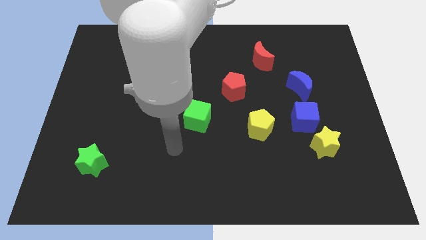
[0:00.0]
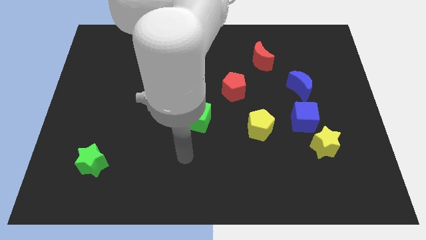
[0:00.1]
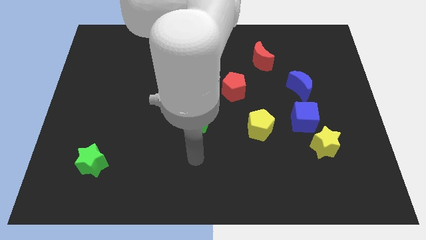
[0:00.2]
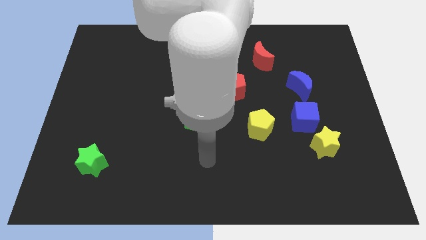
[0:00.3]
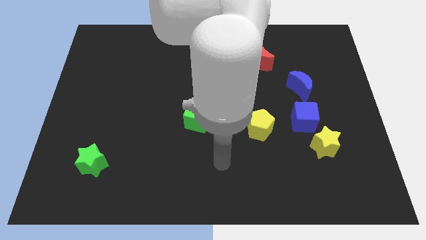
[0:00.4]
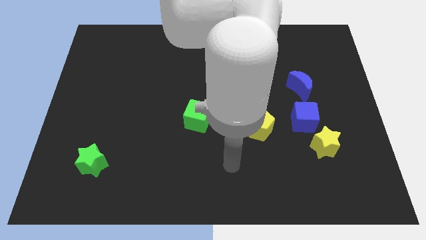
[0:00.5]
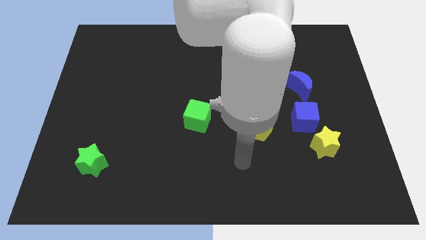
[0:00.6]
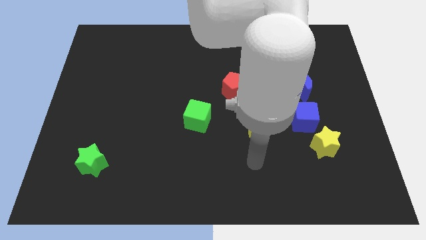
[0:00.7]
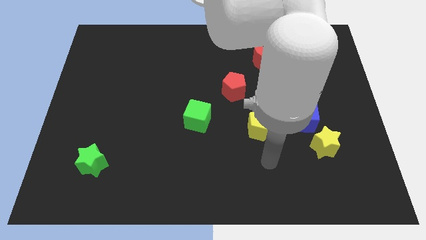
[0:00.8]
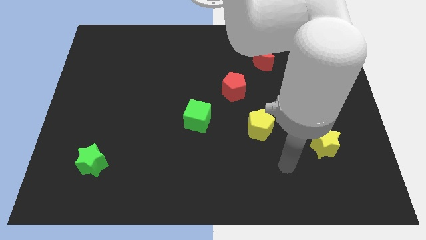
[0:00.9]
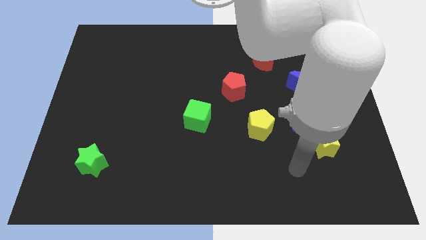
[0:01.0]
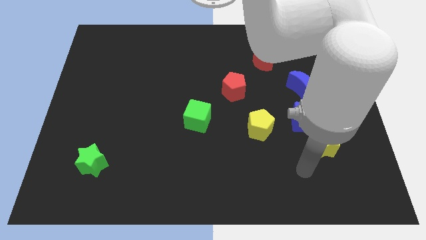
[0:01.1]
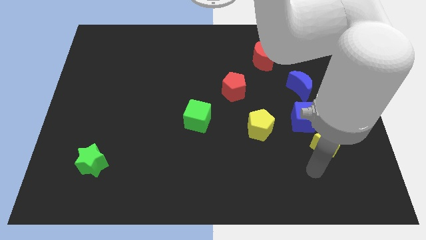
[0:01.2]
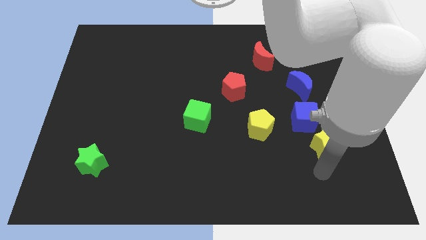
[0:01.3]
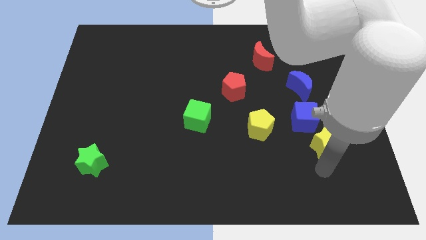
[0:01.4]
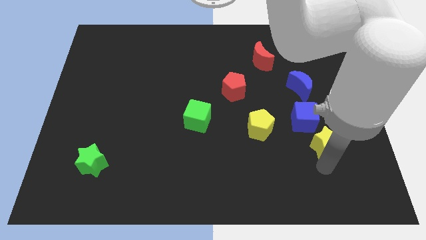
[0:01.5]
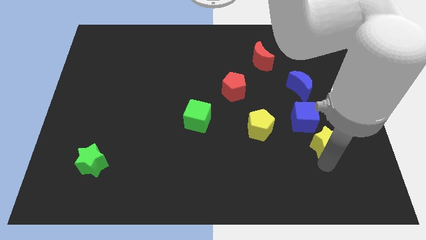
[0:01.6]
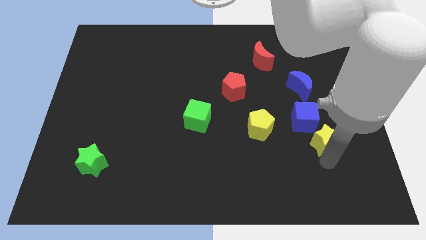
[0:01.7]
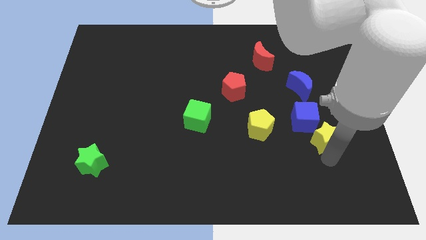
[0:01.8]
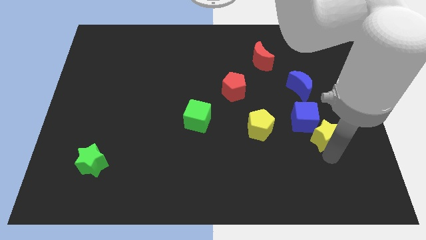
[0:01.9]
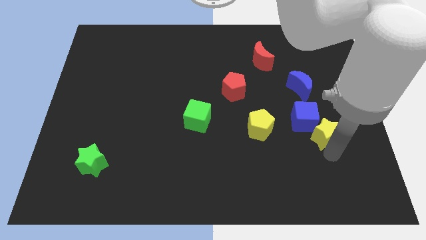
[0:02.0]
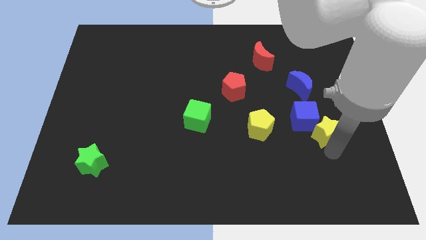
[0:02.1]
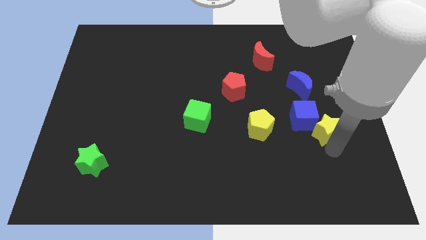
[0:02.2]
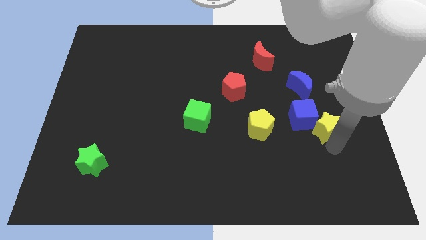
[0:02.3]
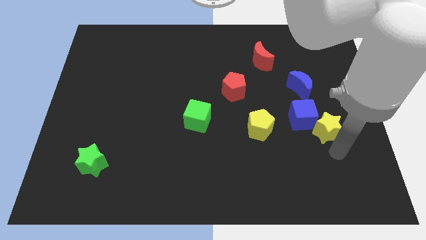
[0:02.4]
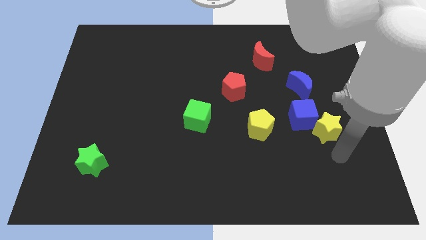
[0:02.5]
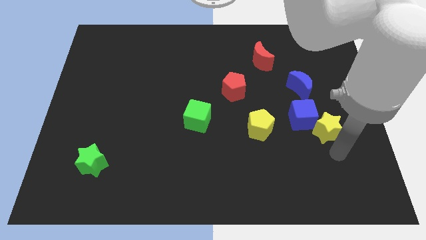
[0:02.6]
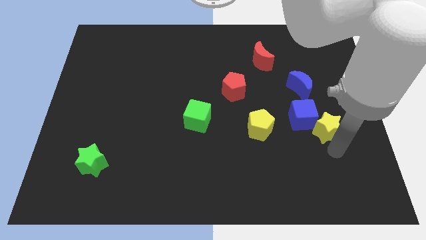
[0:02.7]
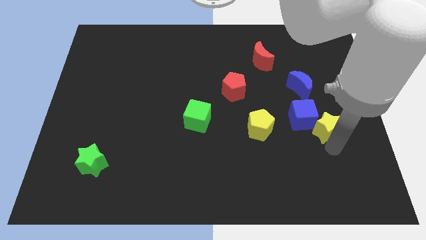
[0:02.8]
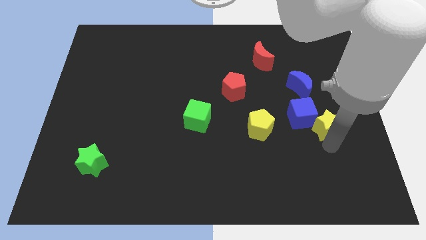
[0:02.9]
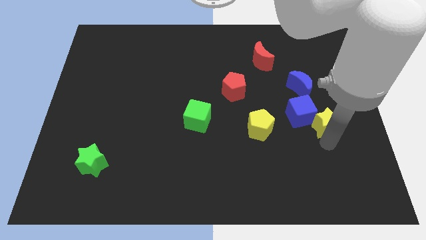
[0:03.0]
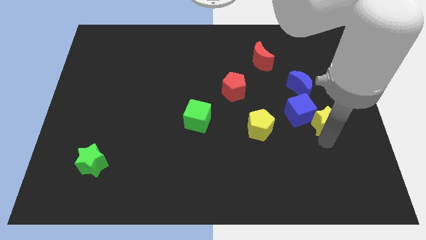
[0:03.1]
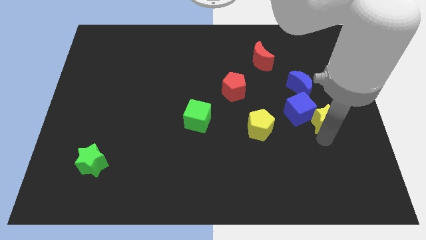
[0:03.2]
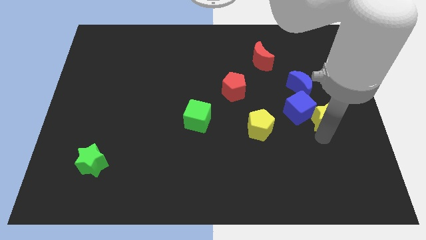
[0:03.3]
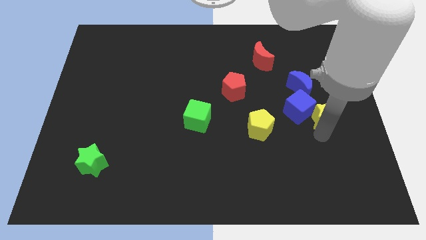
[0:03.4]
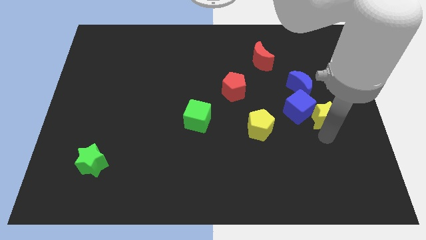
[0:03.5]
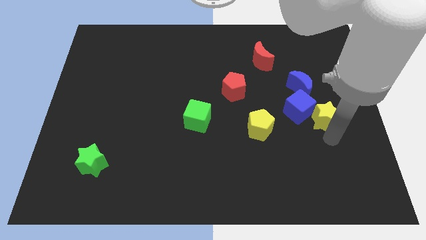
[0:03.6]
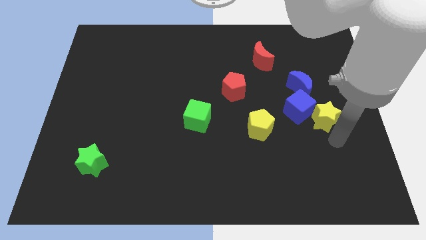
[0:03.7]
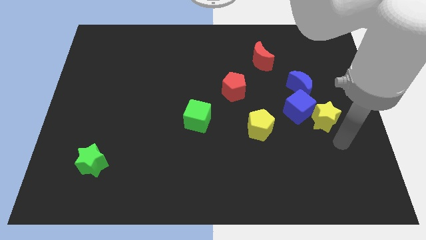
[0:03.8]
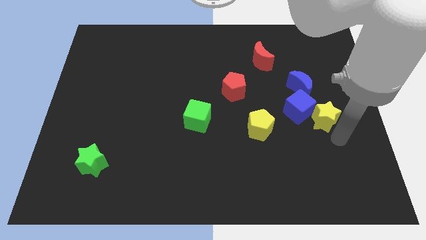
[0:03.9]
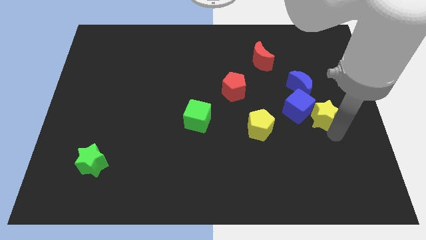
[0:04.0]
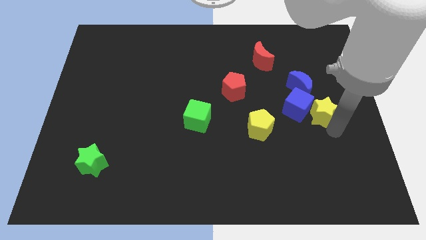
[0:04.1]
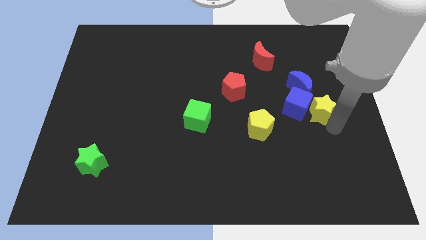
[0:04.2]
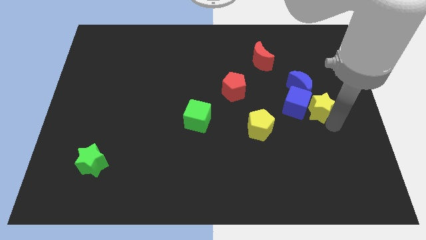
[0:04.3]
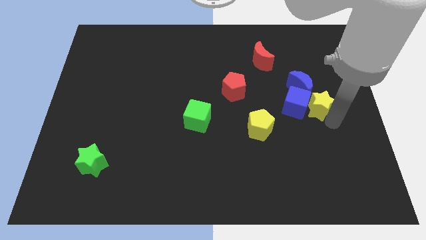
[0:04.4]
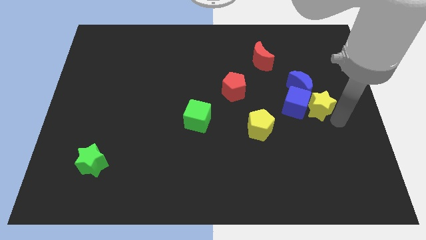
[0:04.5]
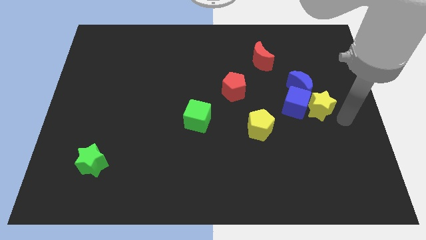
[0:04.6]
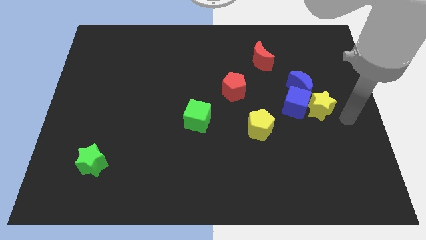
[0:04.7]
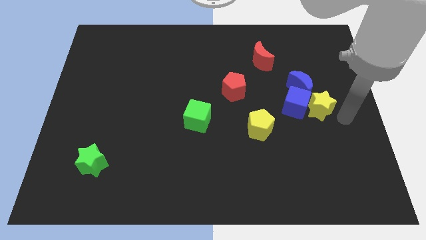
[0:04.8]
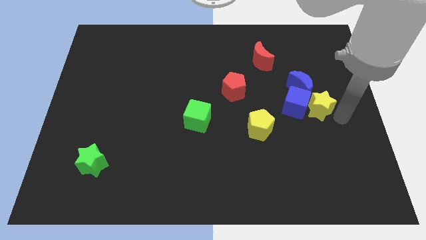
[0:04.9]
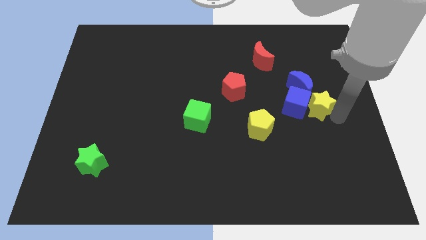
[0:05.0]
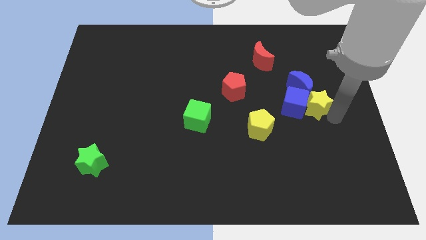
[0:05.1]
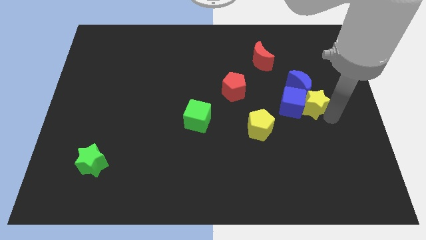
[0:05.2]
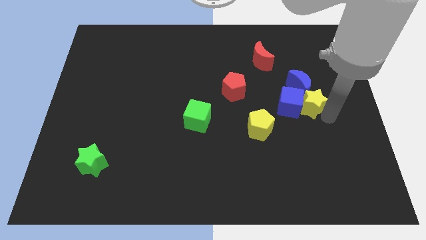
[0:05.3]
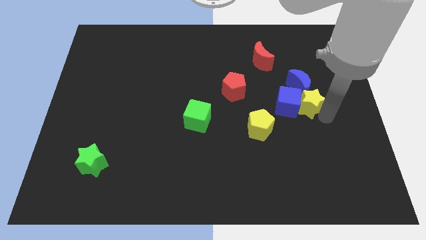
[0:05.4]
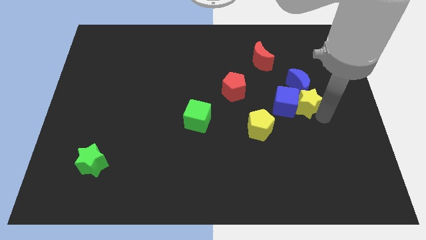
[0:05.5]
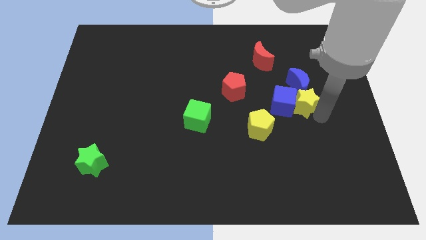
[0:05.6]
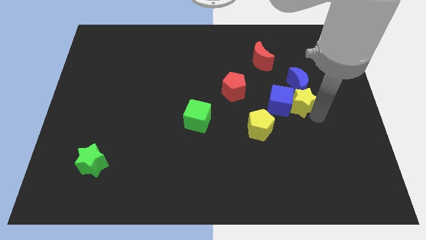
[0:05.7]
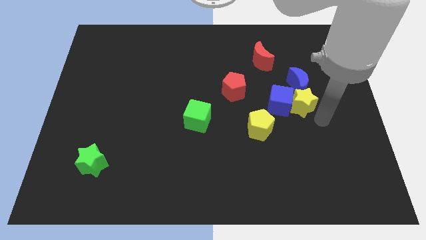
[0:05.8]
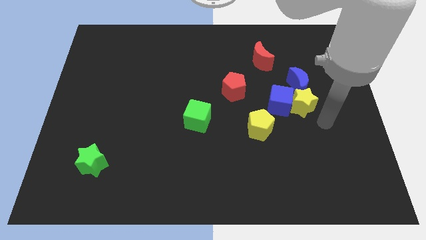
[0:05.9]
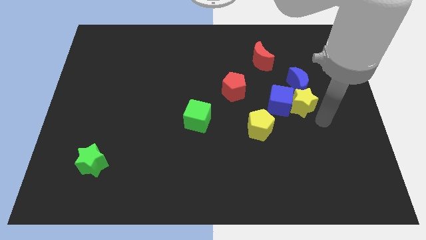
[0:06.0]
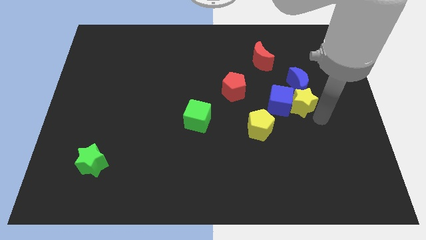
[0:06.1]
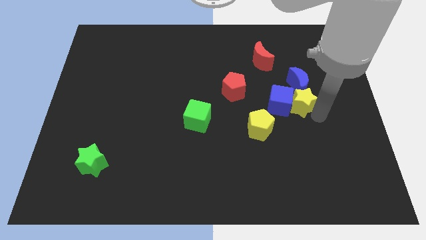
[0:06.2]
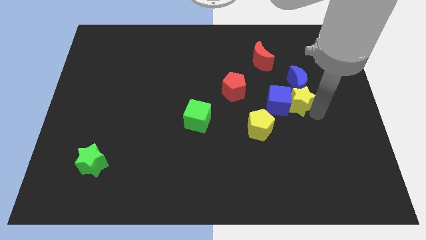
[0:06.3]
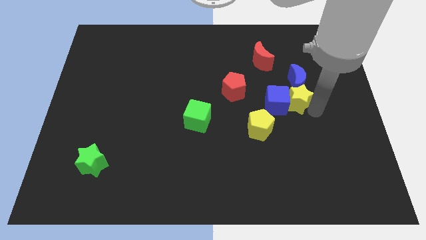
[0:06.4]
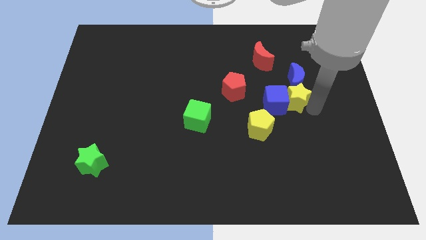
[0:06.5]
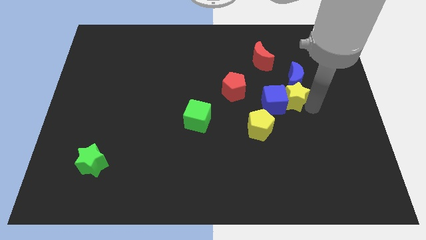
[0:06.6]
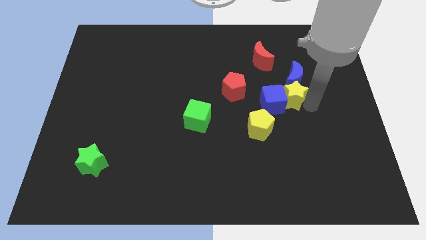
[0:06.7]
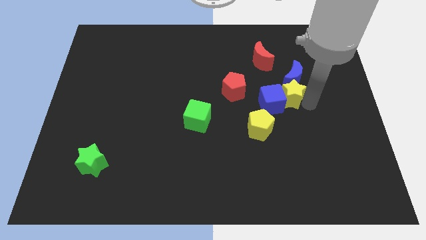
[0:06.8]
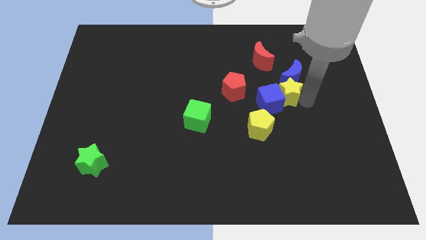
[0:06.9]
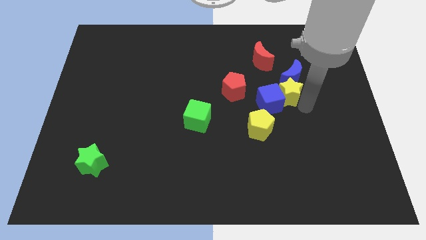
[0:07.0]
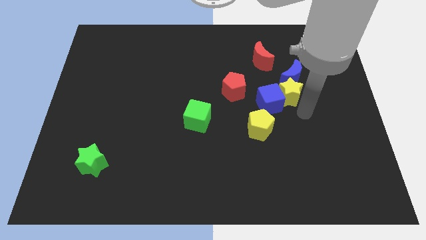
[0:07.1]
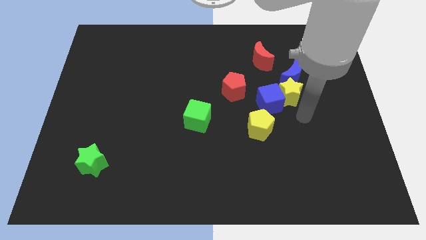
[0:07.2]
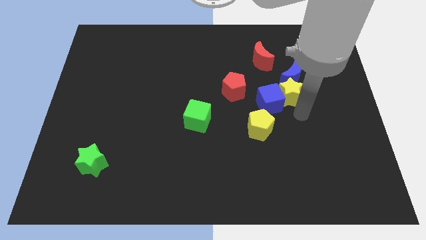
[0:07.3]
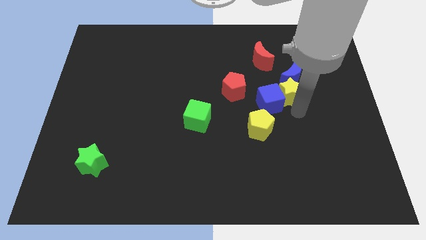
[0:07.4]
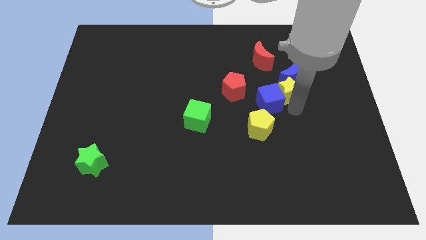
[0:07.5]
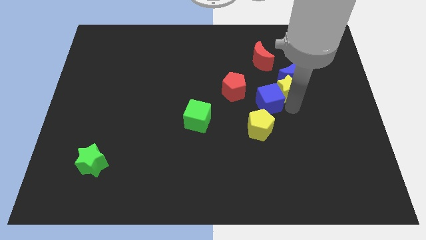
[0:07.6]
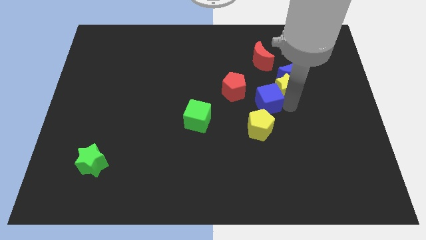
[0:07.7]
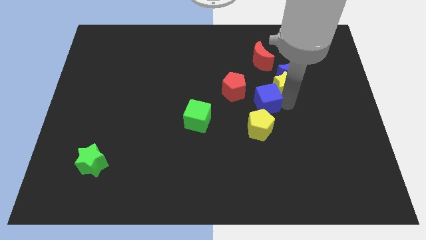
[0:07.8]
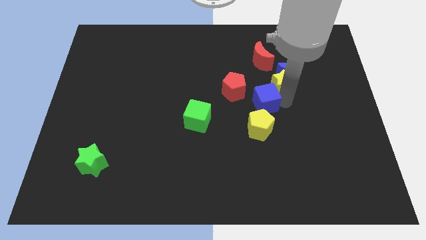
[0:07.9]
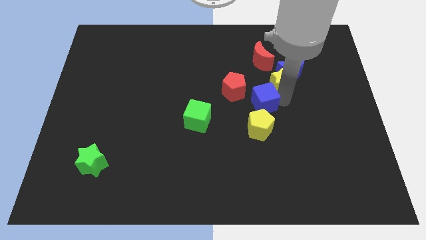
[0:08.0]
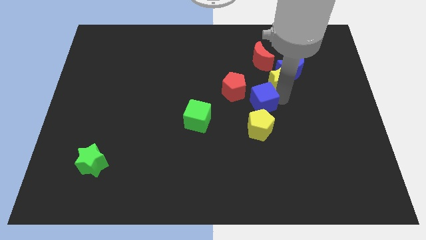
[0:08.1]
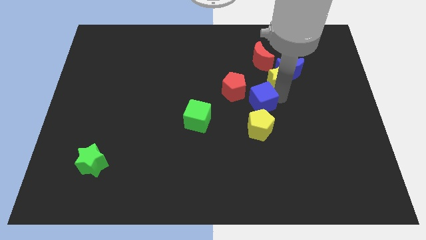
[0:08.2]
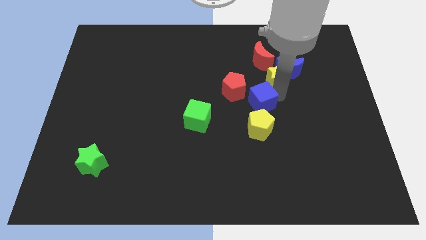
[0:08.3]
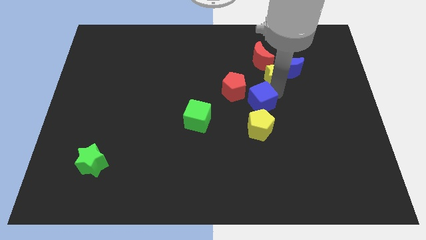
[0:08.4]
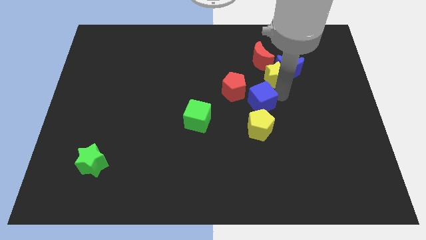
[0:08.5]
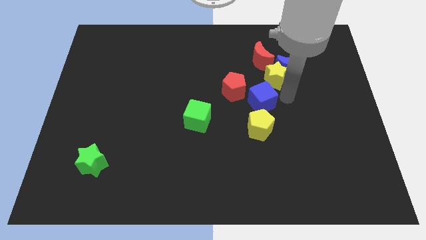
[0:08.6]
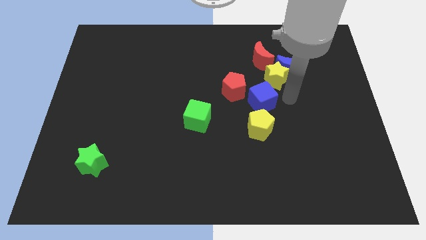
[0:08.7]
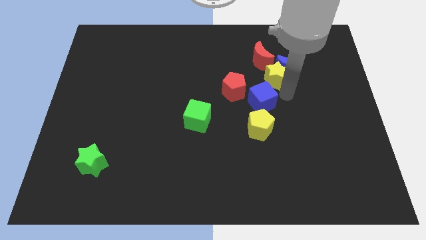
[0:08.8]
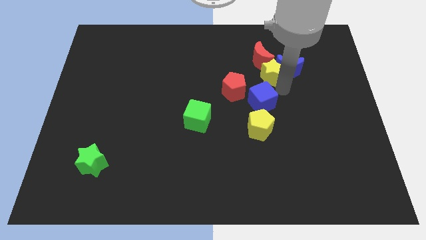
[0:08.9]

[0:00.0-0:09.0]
move the yellow star close to the red moon
